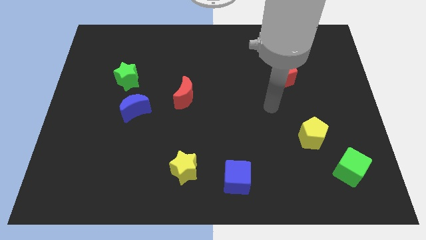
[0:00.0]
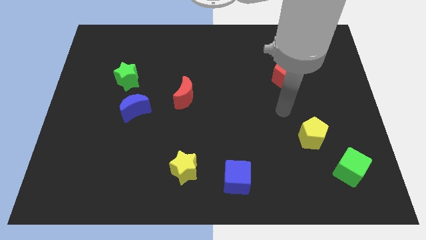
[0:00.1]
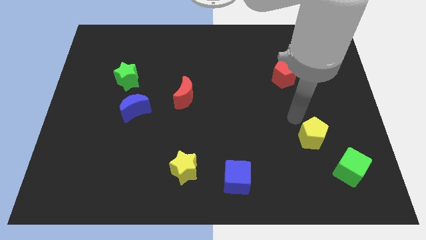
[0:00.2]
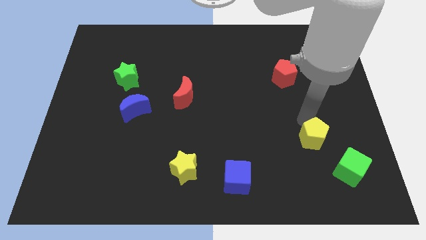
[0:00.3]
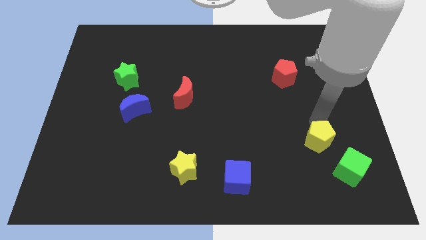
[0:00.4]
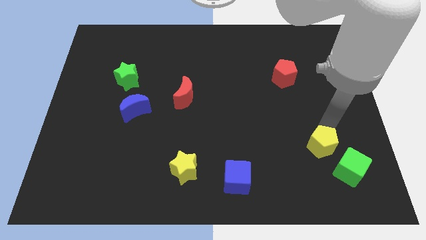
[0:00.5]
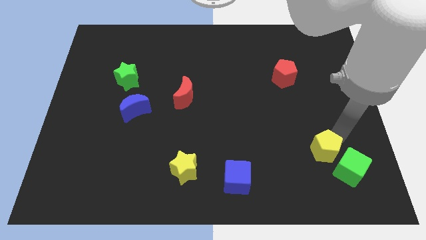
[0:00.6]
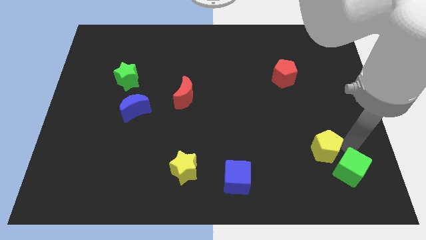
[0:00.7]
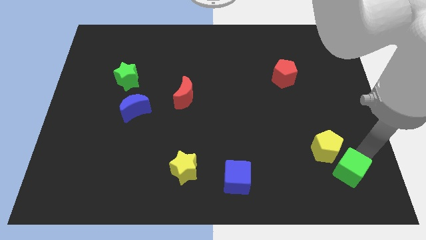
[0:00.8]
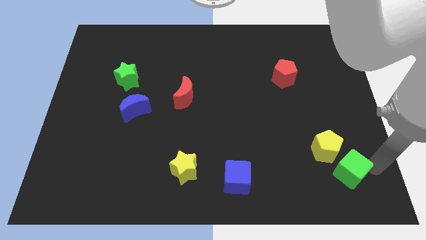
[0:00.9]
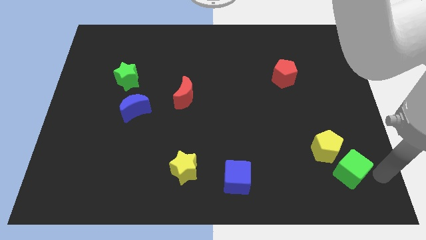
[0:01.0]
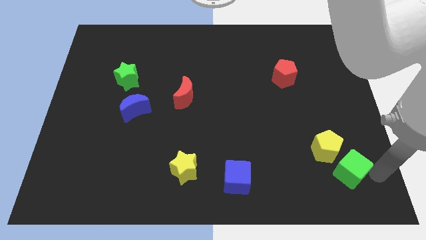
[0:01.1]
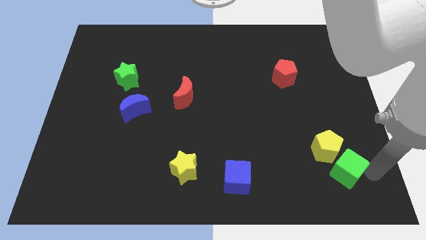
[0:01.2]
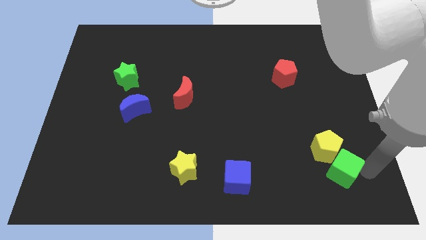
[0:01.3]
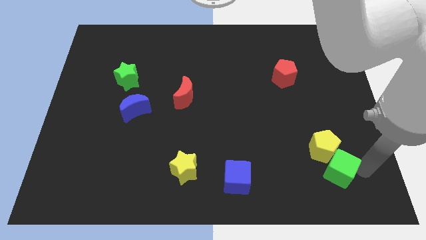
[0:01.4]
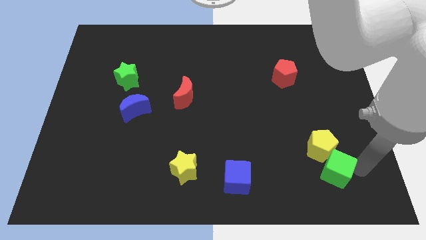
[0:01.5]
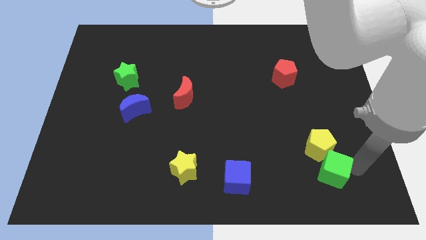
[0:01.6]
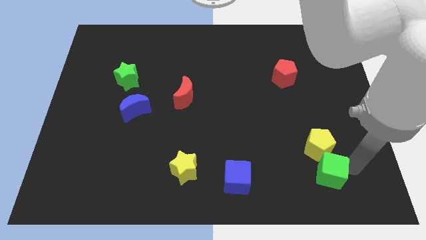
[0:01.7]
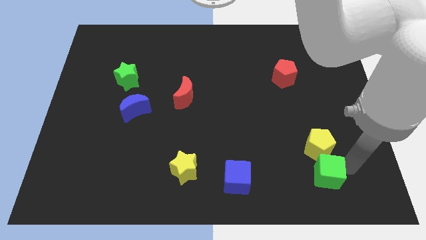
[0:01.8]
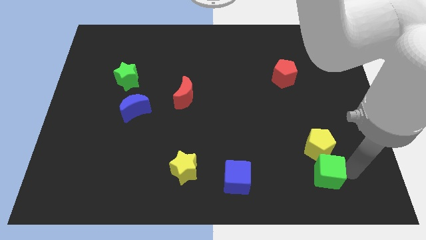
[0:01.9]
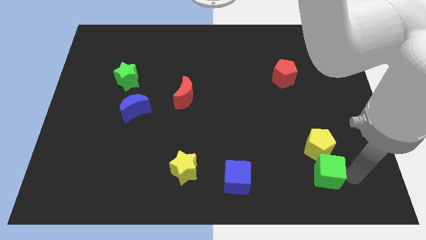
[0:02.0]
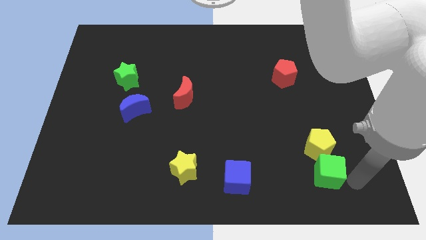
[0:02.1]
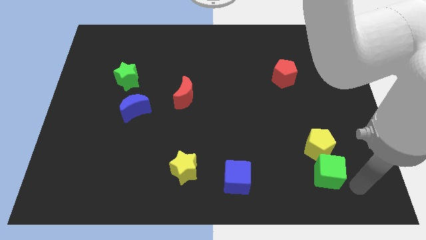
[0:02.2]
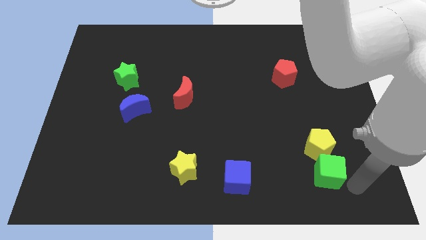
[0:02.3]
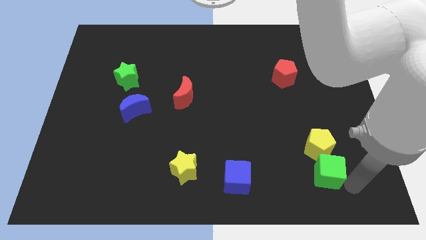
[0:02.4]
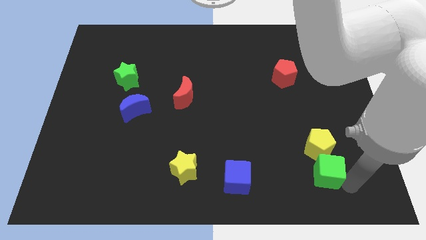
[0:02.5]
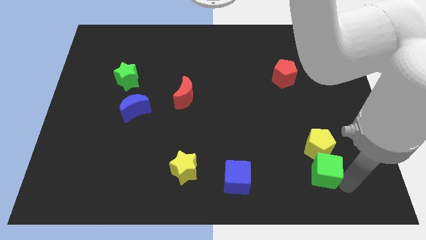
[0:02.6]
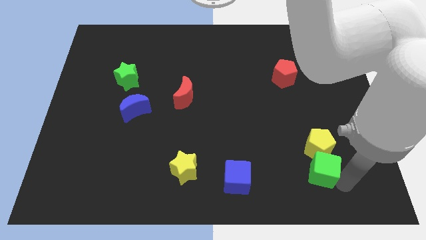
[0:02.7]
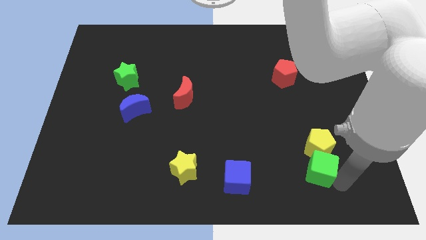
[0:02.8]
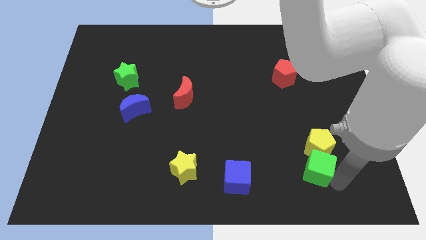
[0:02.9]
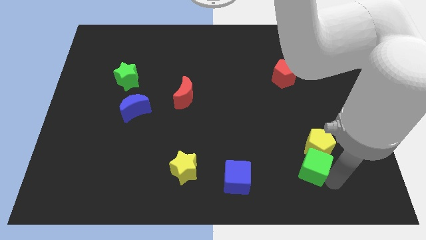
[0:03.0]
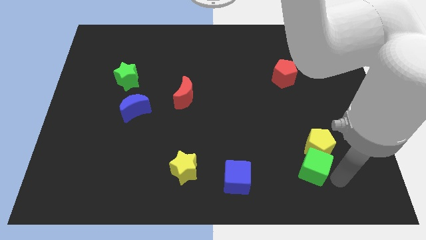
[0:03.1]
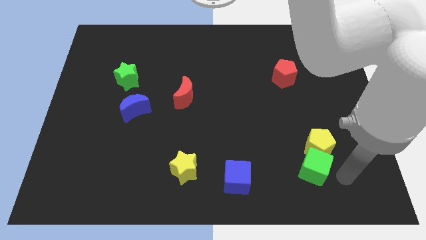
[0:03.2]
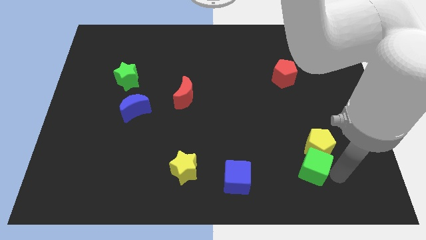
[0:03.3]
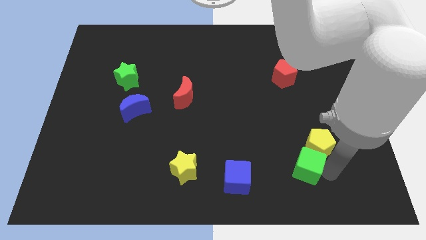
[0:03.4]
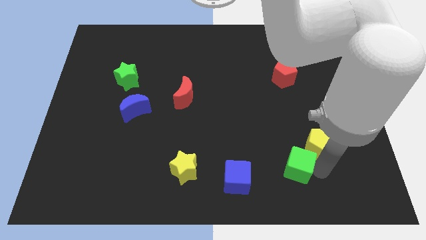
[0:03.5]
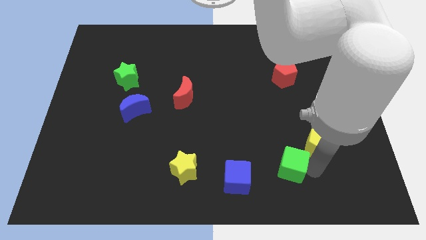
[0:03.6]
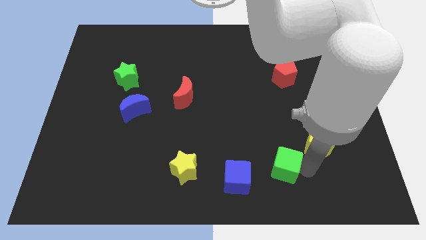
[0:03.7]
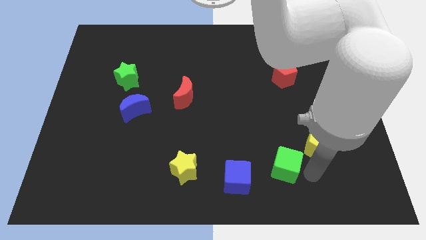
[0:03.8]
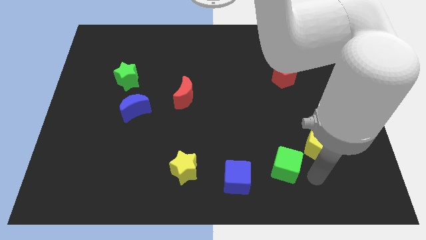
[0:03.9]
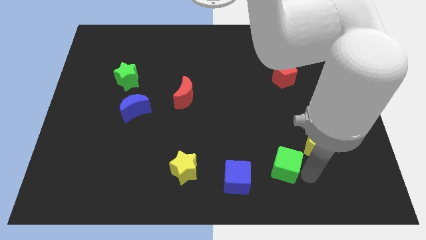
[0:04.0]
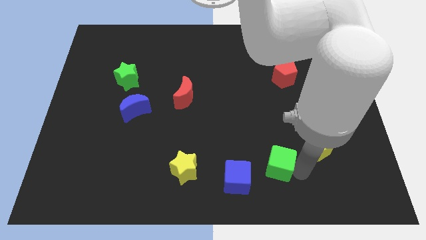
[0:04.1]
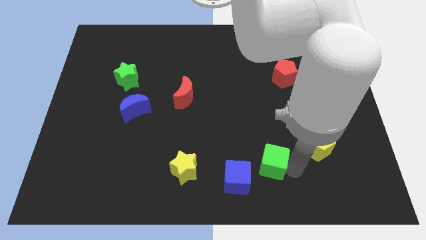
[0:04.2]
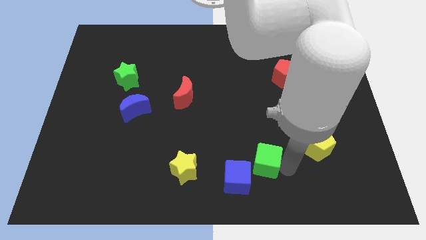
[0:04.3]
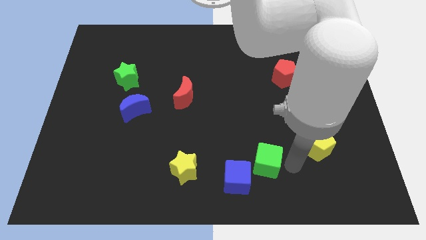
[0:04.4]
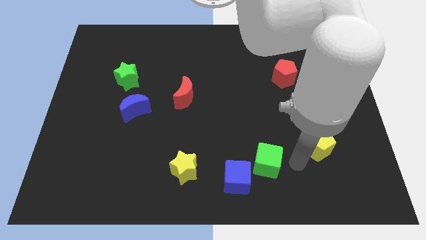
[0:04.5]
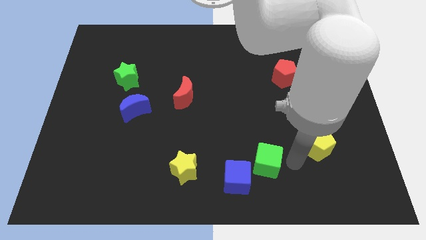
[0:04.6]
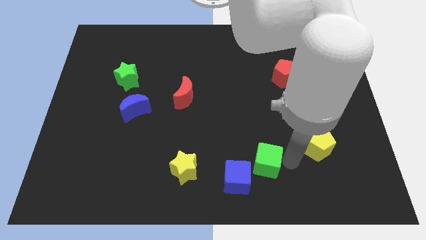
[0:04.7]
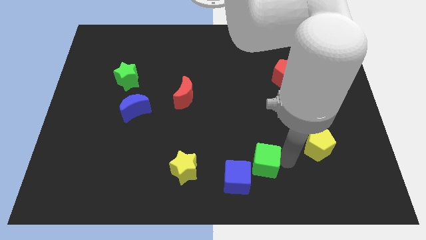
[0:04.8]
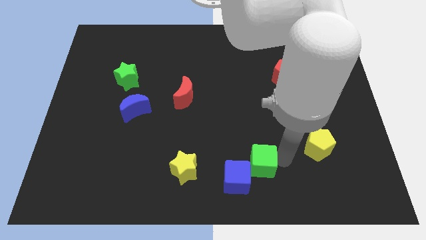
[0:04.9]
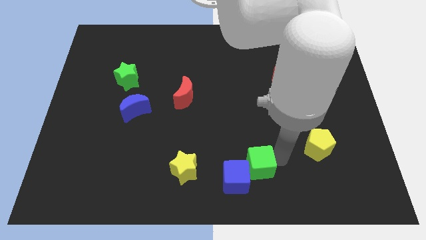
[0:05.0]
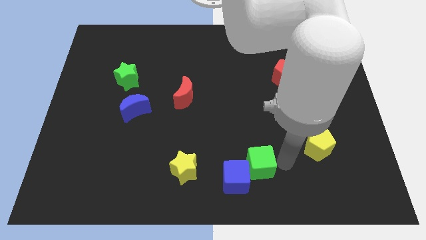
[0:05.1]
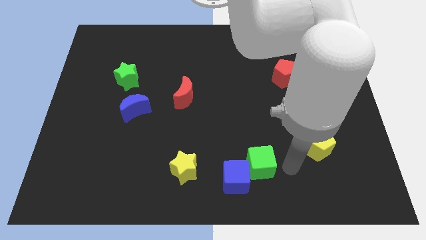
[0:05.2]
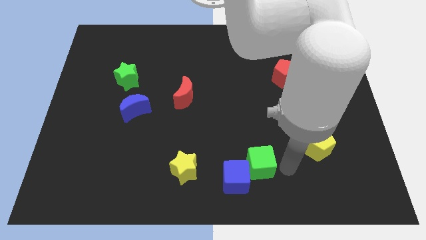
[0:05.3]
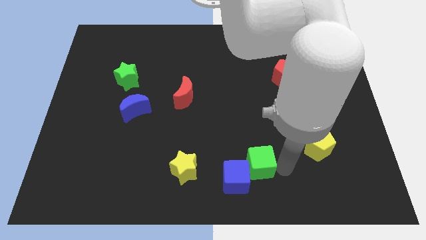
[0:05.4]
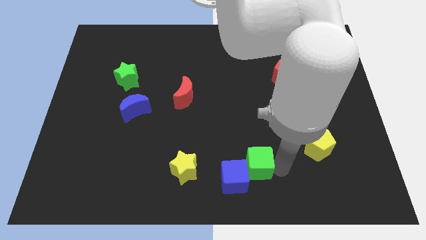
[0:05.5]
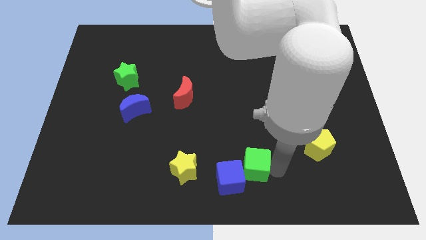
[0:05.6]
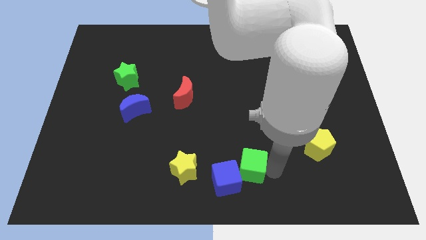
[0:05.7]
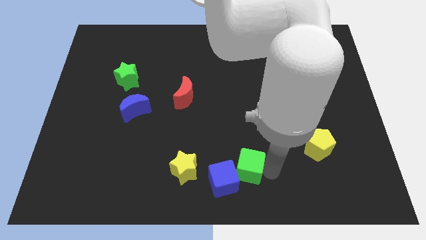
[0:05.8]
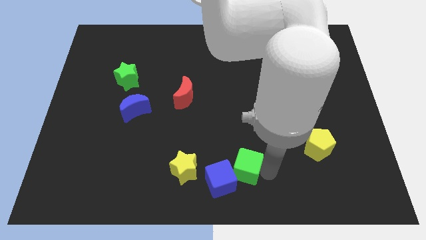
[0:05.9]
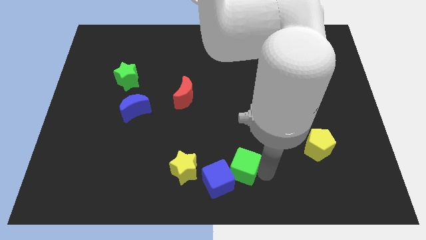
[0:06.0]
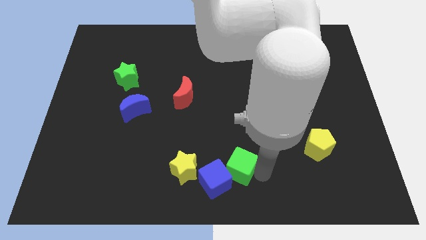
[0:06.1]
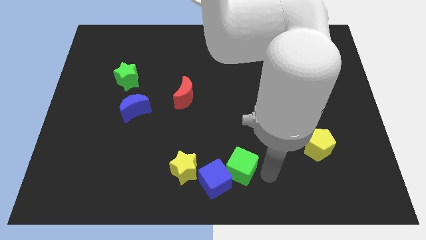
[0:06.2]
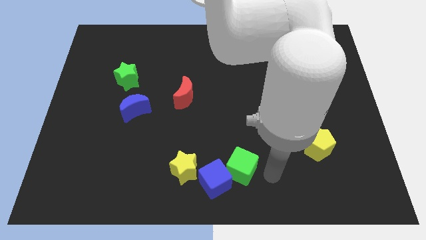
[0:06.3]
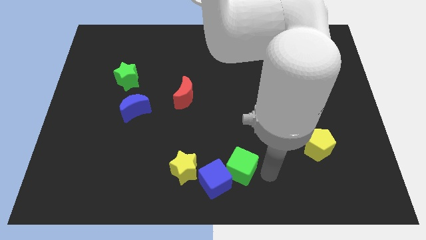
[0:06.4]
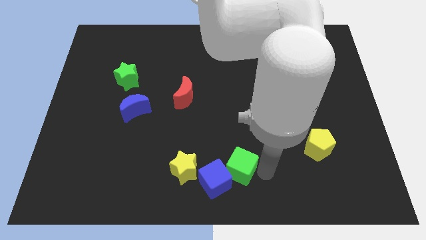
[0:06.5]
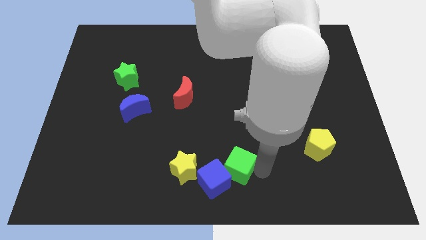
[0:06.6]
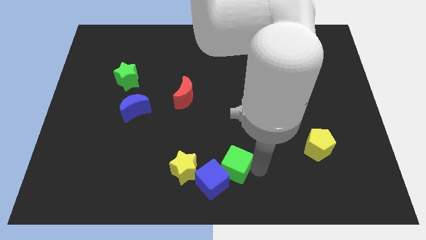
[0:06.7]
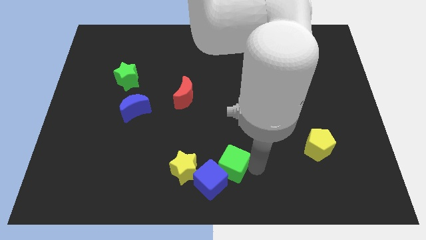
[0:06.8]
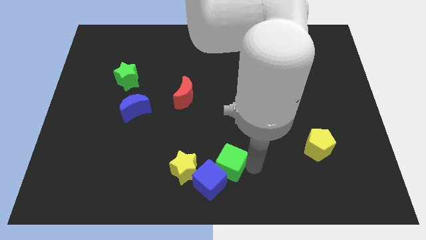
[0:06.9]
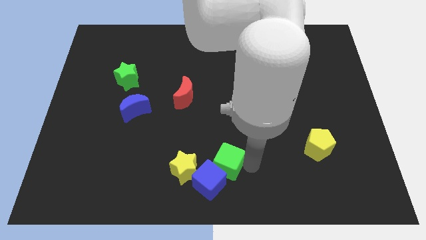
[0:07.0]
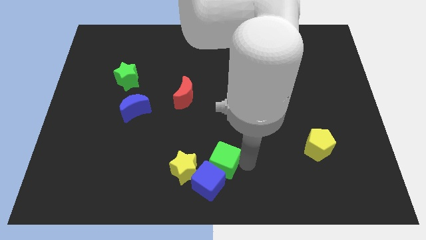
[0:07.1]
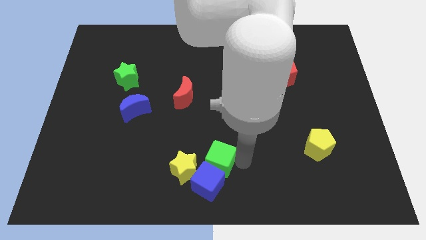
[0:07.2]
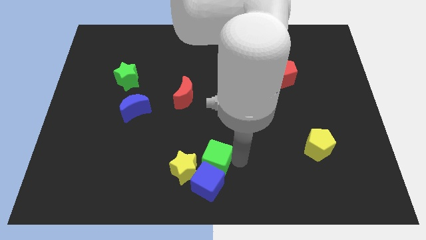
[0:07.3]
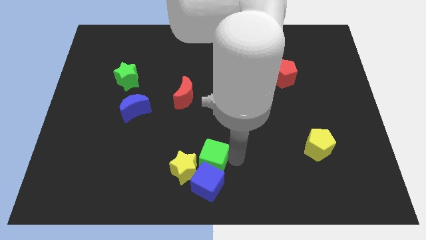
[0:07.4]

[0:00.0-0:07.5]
slide the green cube towards the yellow star
